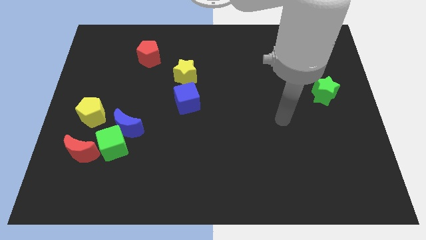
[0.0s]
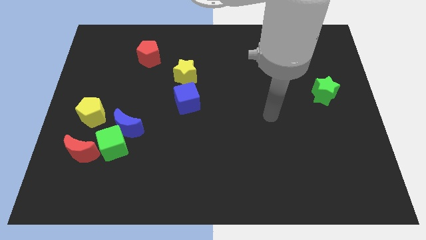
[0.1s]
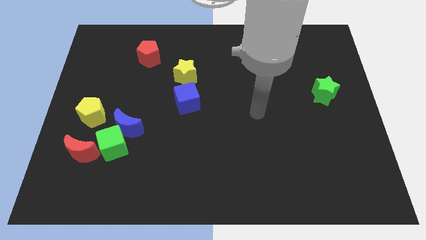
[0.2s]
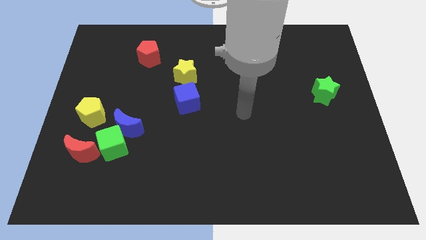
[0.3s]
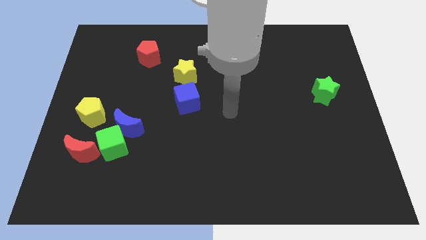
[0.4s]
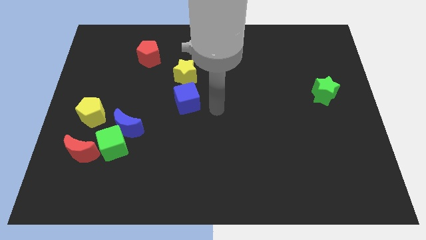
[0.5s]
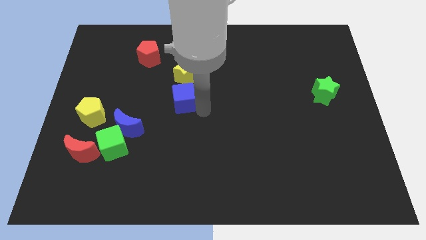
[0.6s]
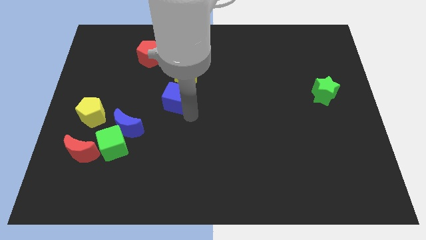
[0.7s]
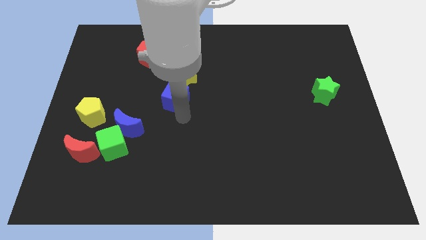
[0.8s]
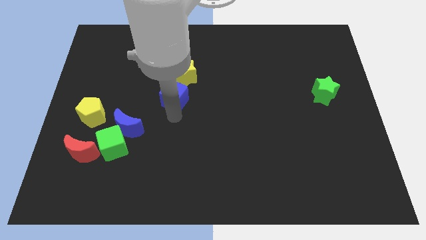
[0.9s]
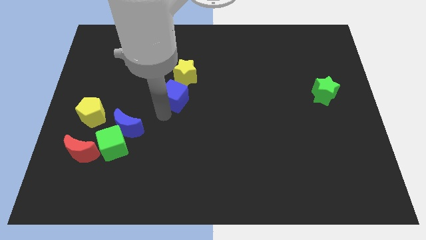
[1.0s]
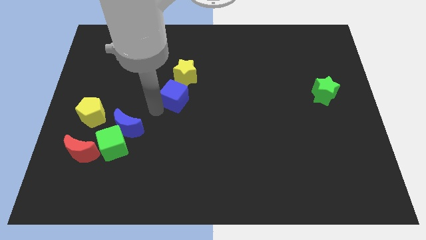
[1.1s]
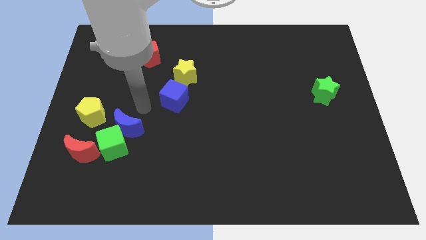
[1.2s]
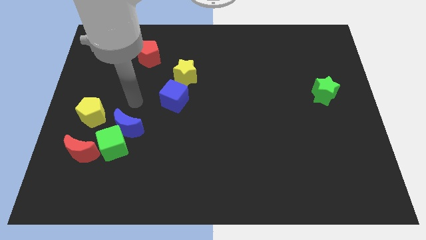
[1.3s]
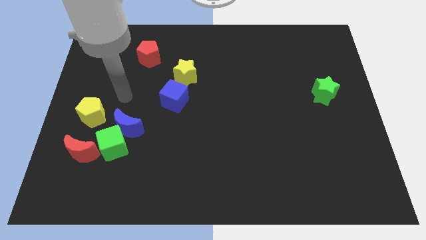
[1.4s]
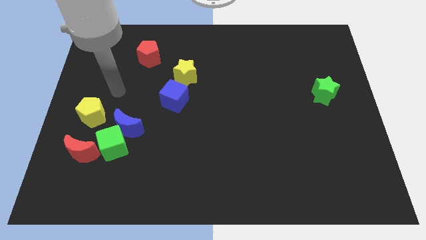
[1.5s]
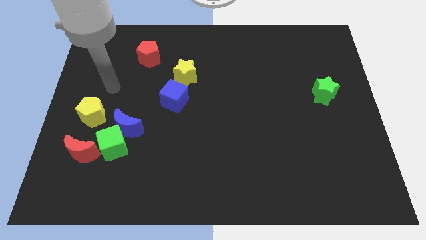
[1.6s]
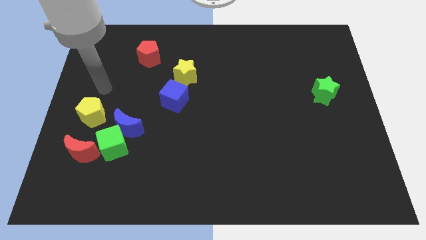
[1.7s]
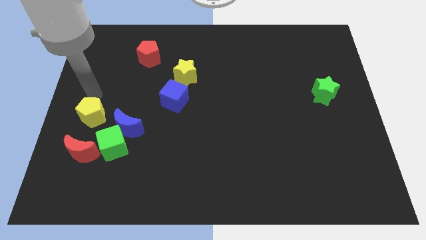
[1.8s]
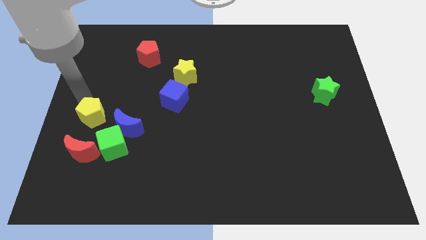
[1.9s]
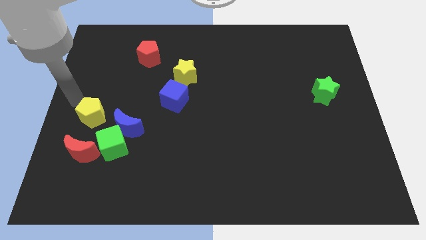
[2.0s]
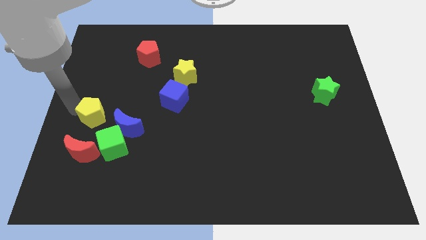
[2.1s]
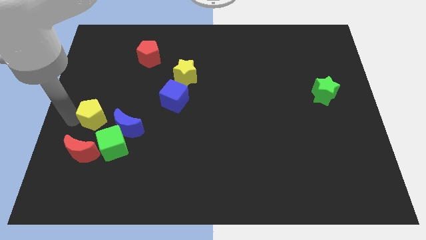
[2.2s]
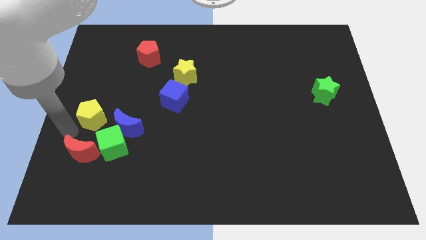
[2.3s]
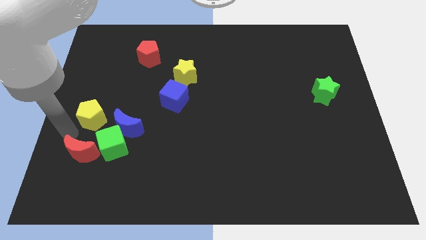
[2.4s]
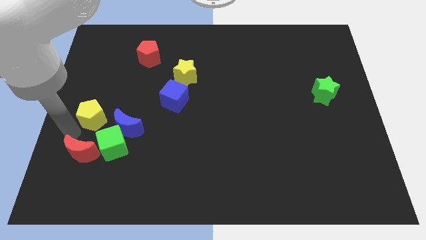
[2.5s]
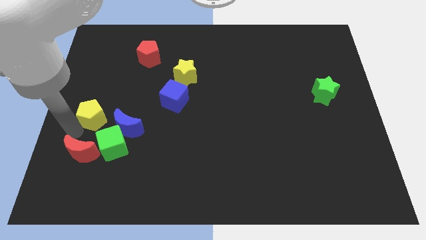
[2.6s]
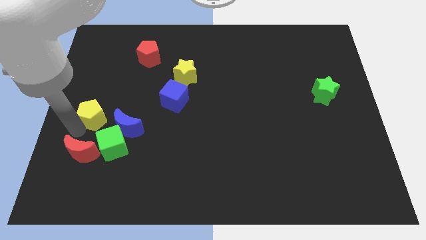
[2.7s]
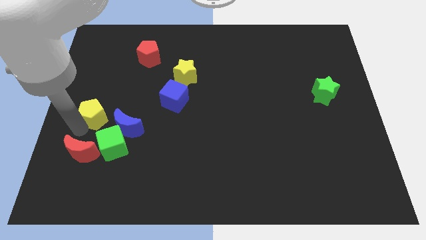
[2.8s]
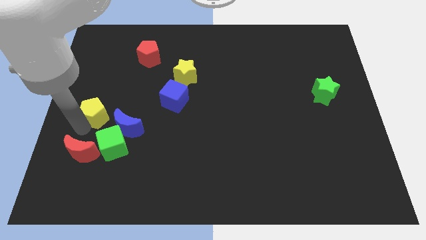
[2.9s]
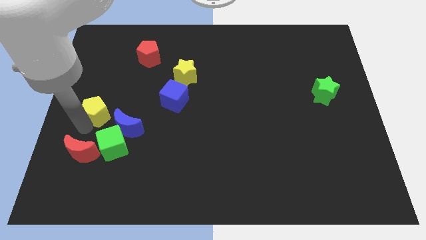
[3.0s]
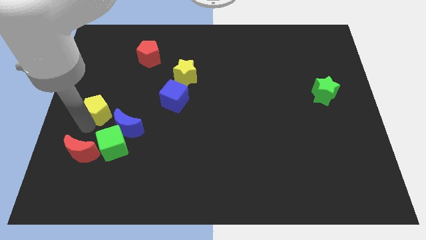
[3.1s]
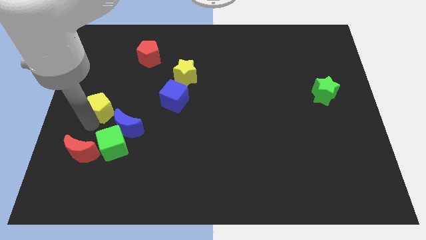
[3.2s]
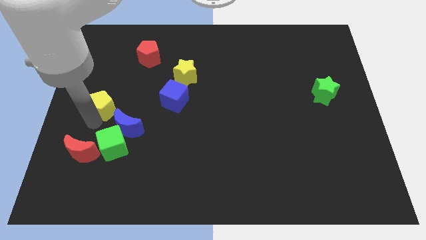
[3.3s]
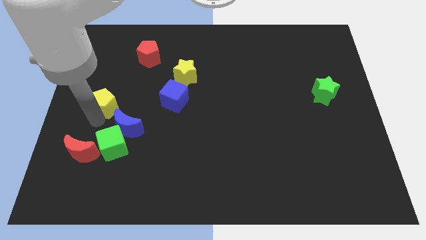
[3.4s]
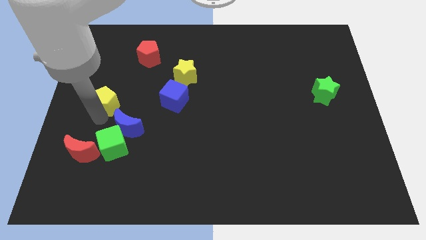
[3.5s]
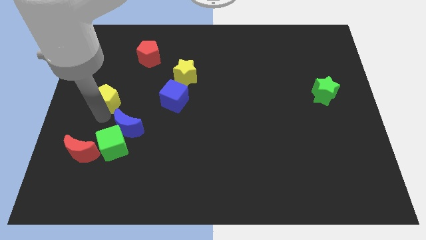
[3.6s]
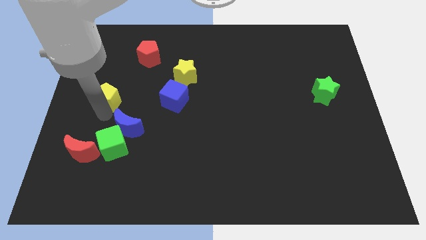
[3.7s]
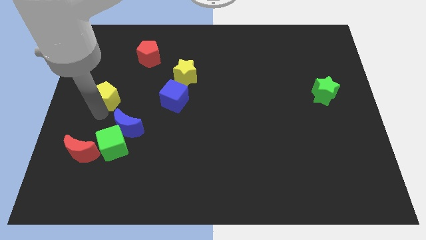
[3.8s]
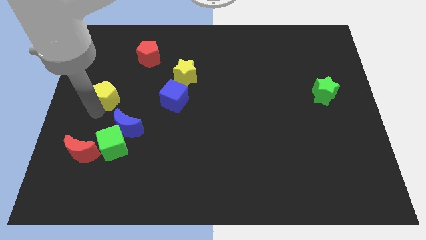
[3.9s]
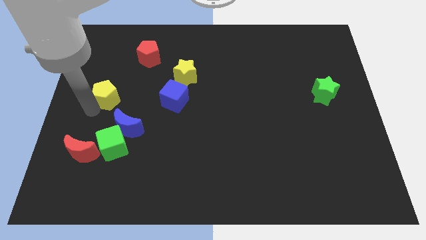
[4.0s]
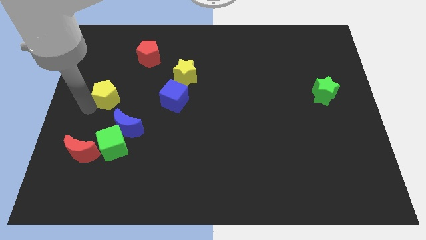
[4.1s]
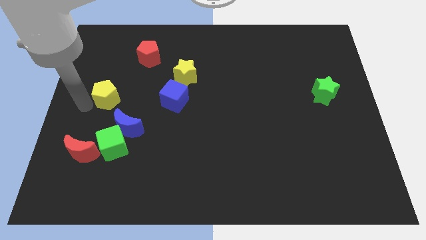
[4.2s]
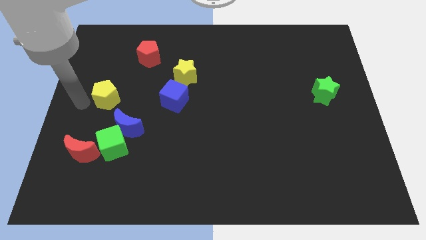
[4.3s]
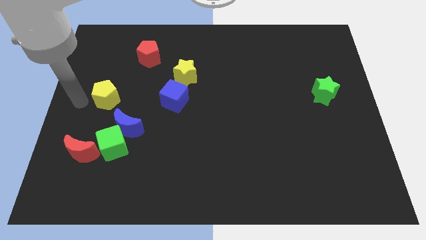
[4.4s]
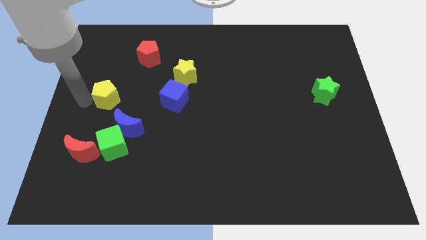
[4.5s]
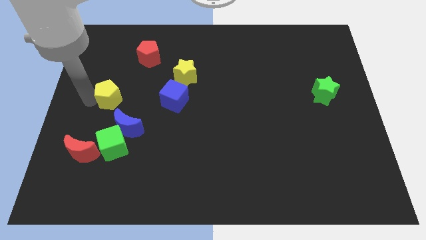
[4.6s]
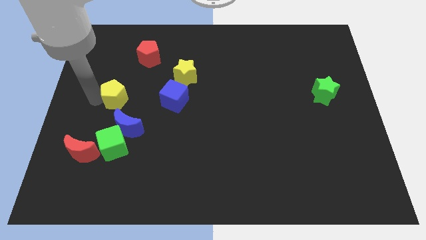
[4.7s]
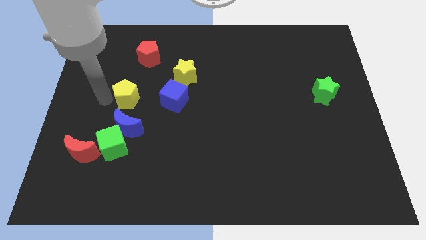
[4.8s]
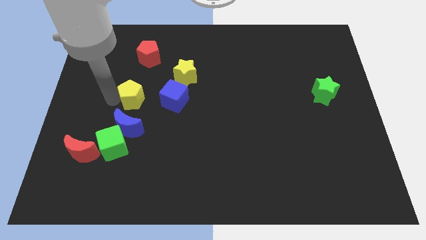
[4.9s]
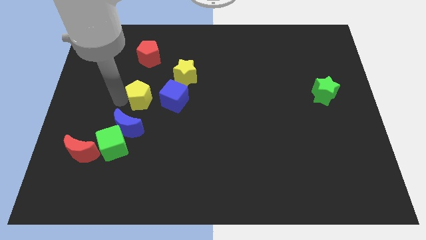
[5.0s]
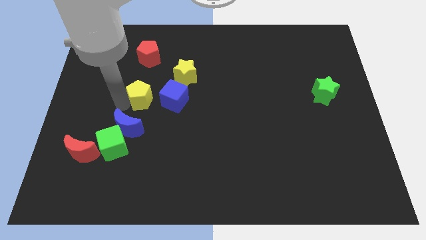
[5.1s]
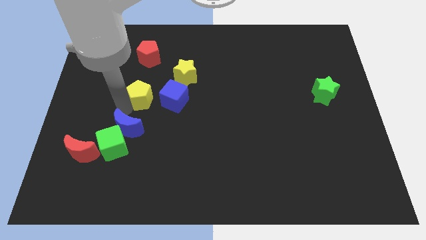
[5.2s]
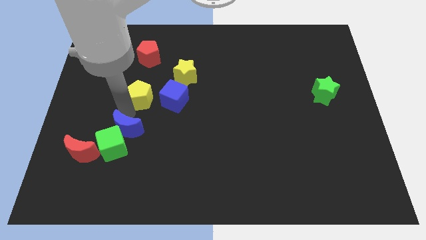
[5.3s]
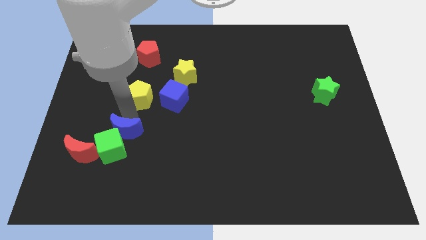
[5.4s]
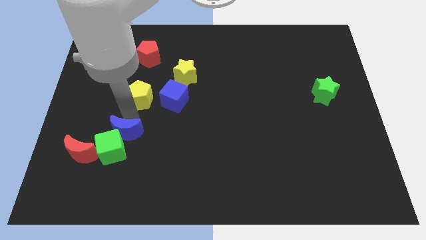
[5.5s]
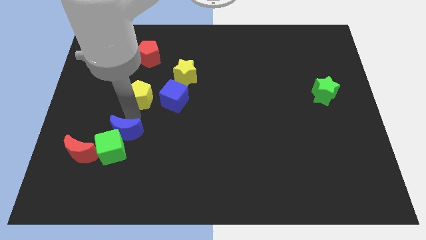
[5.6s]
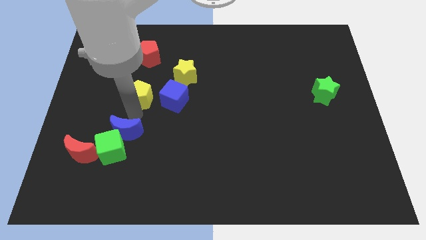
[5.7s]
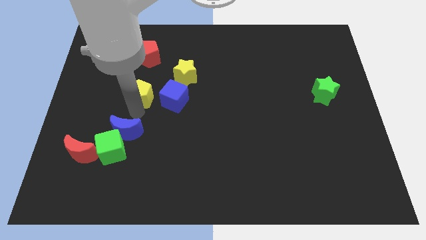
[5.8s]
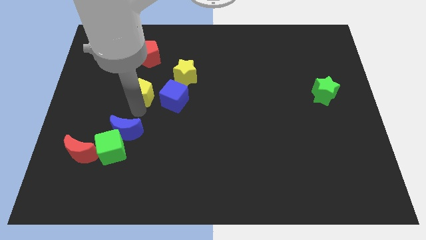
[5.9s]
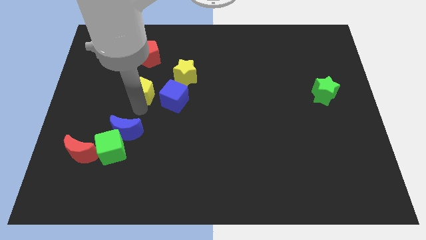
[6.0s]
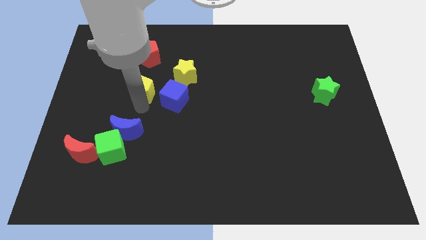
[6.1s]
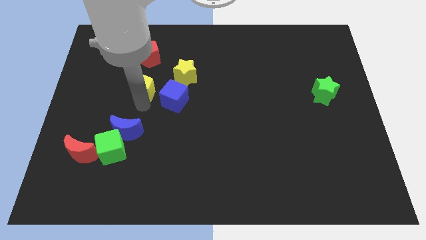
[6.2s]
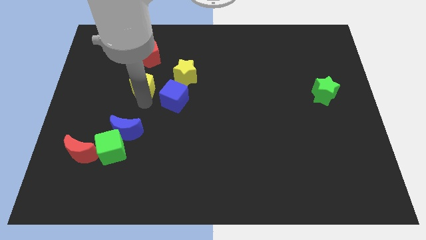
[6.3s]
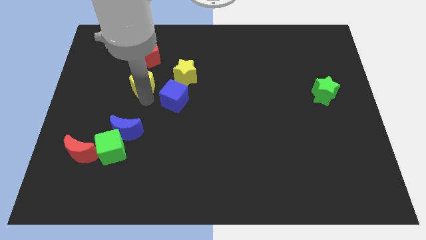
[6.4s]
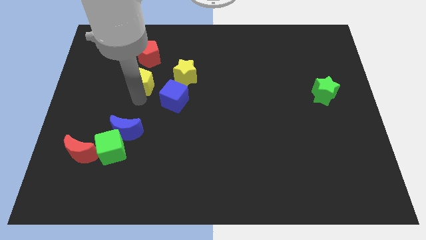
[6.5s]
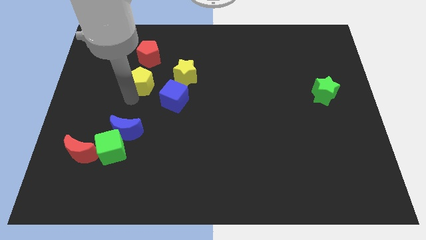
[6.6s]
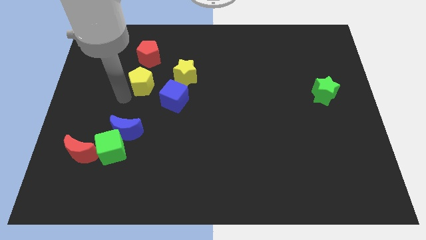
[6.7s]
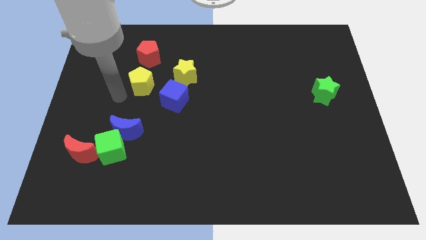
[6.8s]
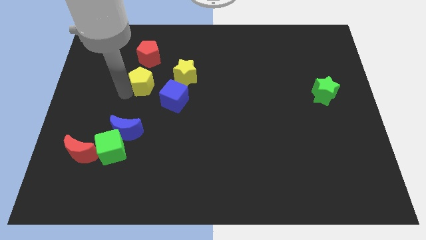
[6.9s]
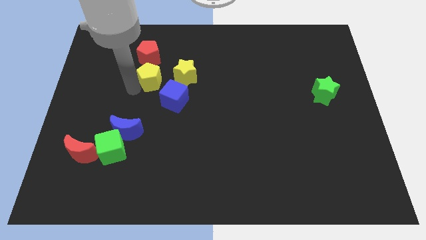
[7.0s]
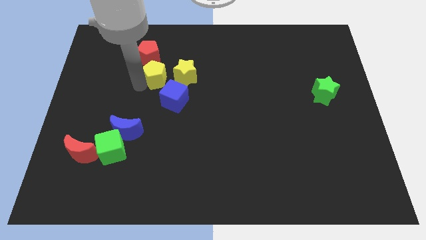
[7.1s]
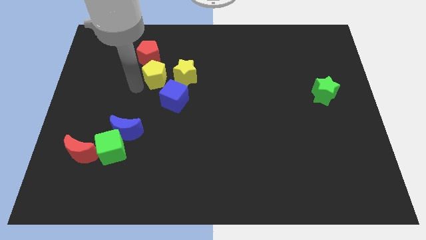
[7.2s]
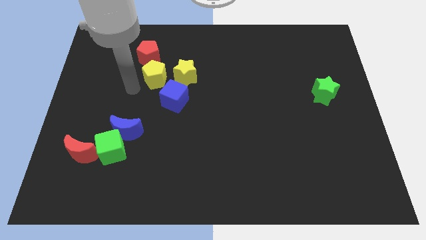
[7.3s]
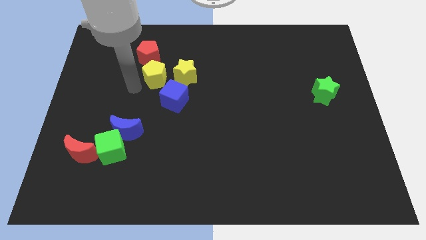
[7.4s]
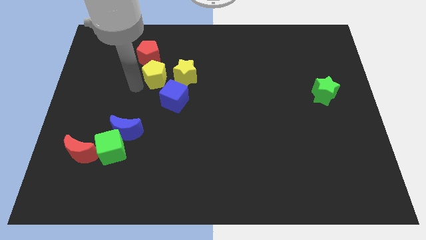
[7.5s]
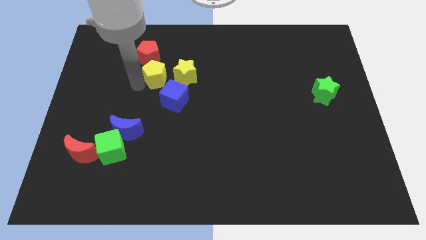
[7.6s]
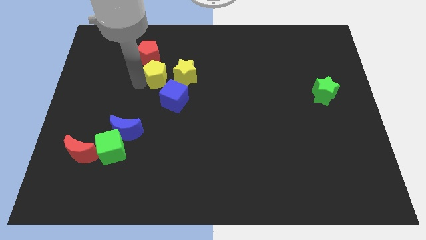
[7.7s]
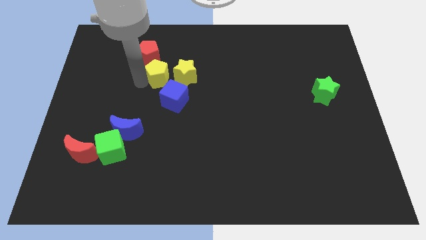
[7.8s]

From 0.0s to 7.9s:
slide the yellow pentagon above the blue cube
